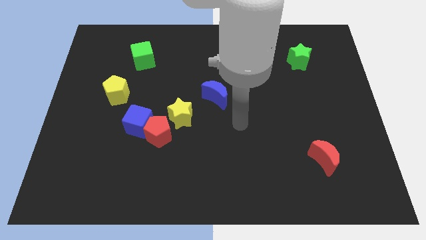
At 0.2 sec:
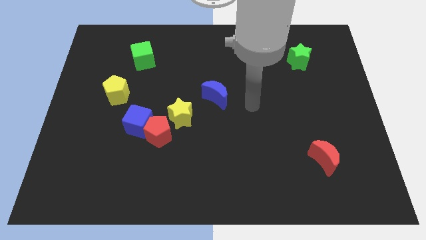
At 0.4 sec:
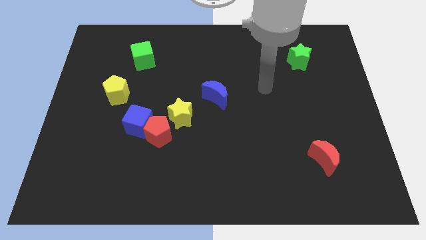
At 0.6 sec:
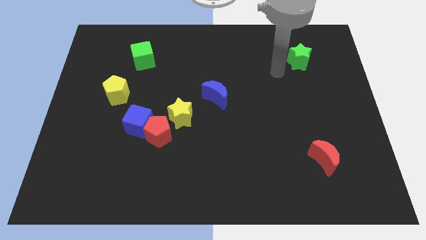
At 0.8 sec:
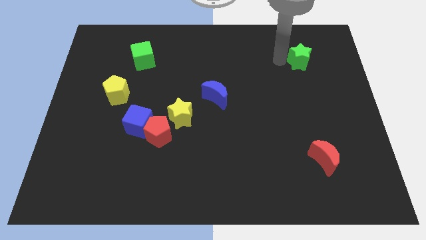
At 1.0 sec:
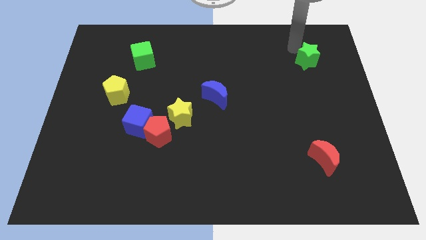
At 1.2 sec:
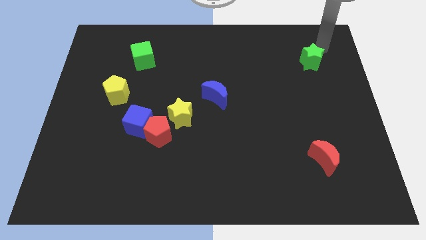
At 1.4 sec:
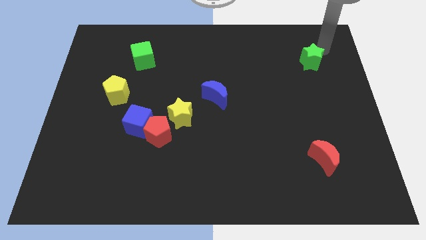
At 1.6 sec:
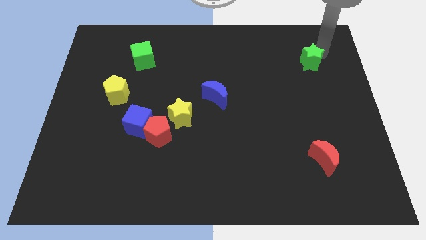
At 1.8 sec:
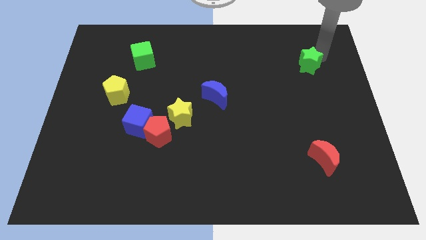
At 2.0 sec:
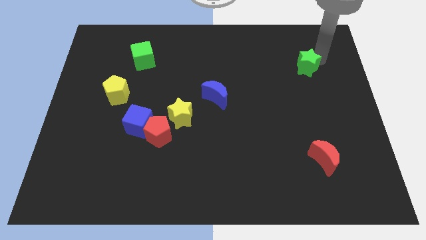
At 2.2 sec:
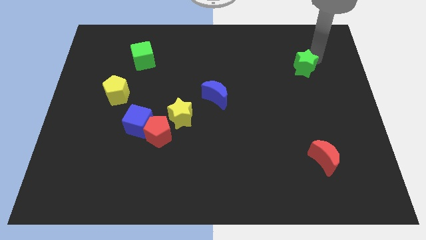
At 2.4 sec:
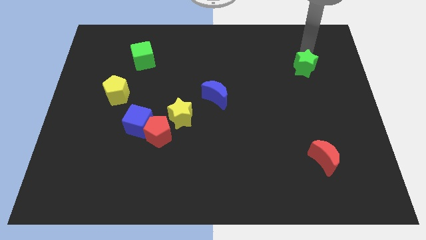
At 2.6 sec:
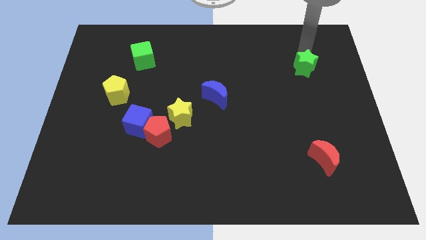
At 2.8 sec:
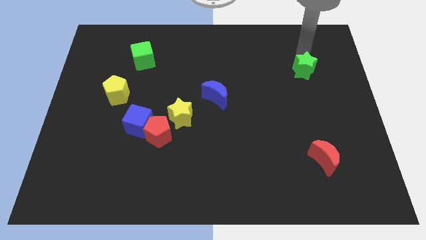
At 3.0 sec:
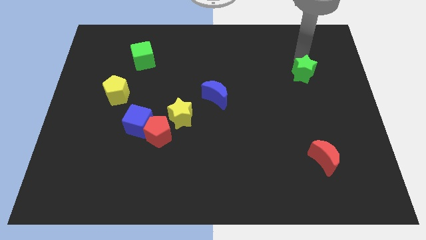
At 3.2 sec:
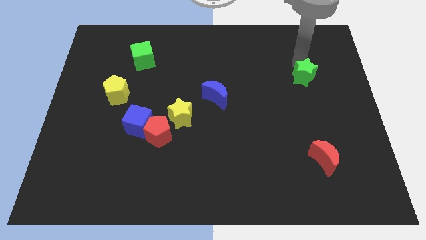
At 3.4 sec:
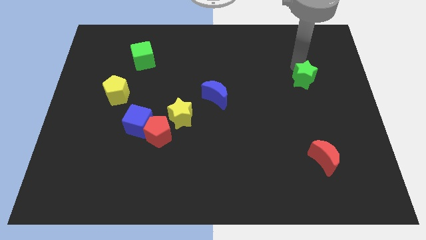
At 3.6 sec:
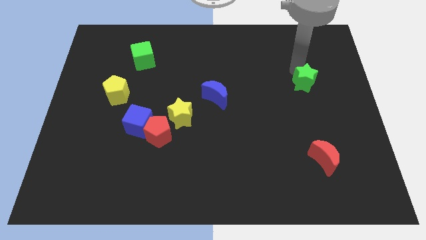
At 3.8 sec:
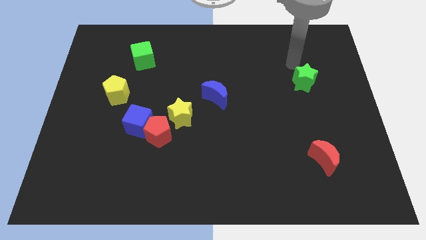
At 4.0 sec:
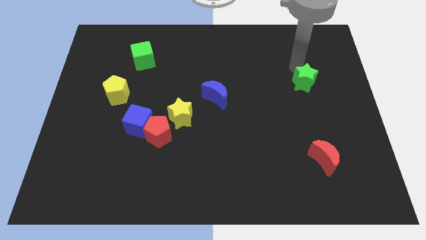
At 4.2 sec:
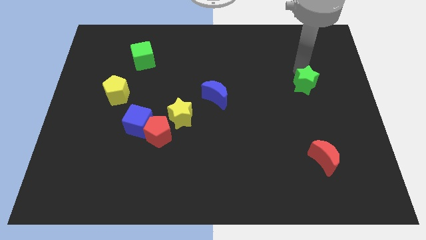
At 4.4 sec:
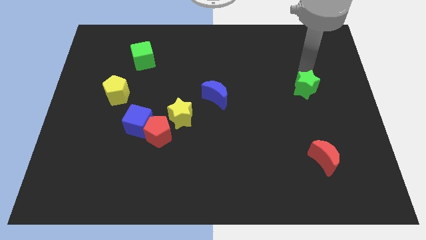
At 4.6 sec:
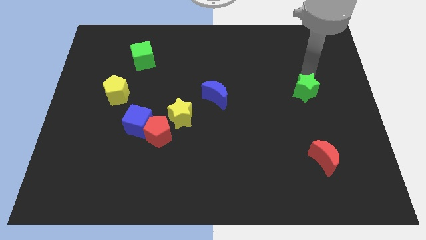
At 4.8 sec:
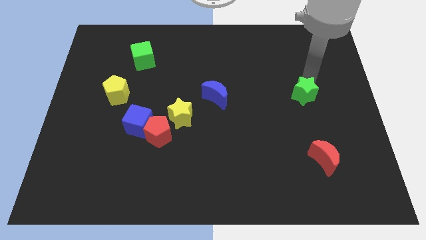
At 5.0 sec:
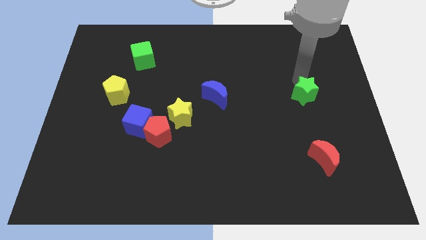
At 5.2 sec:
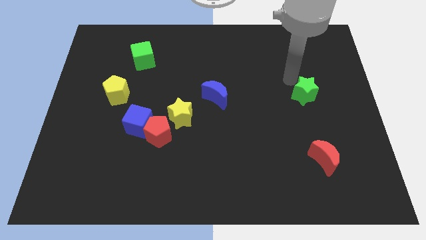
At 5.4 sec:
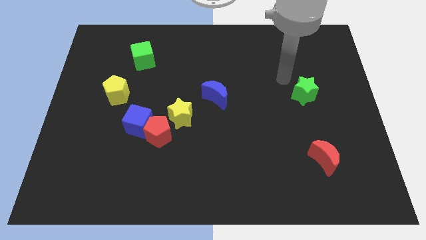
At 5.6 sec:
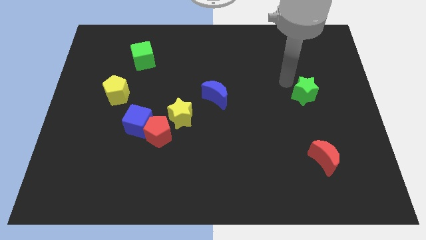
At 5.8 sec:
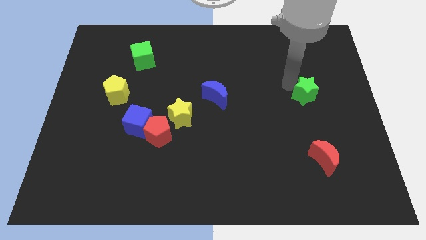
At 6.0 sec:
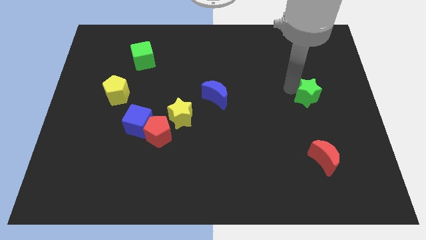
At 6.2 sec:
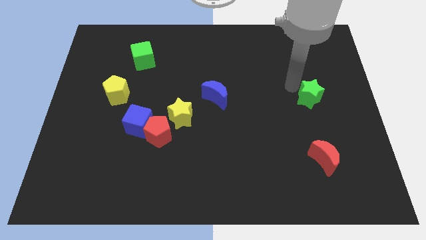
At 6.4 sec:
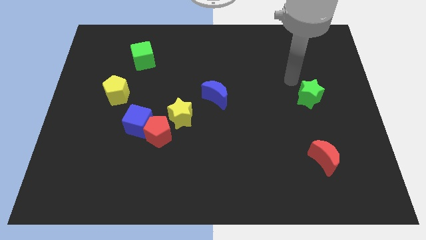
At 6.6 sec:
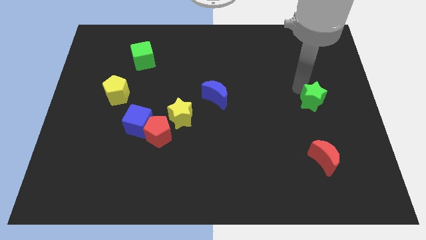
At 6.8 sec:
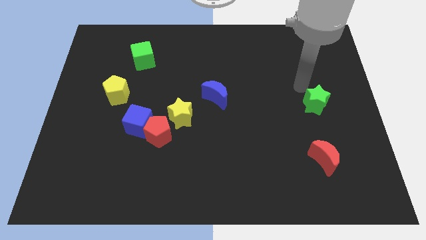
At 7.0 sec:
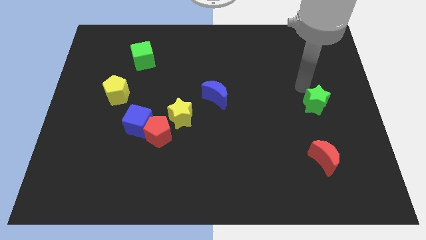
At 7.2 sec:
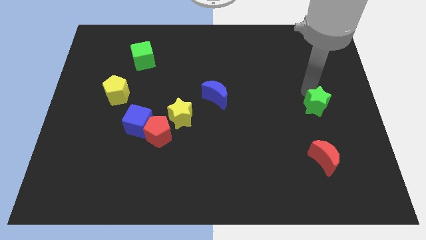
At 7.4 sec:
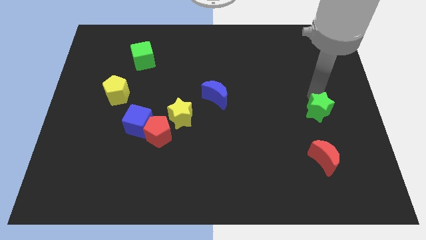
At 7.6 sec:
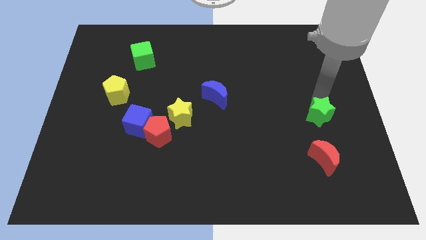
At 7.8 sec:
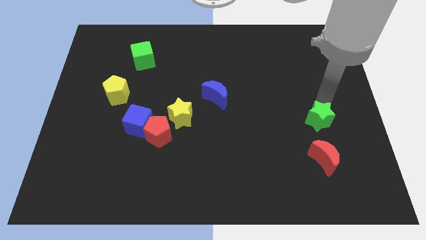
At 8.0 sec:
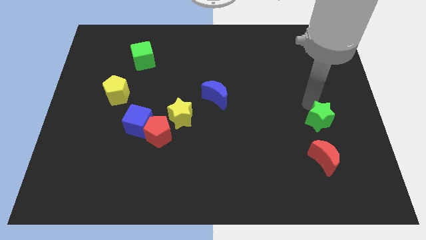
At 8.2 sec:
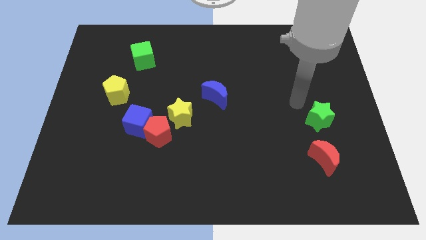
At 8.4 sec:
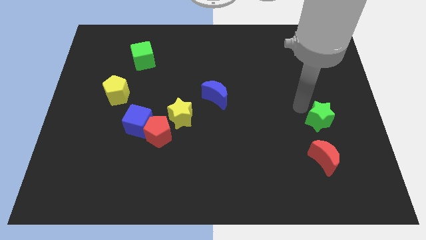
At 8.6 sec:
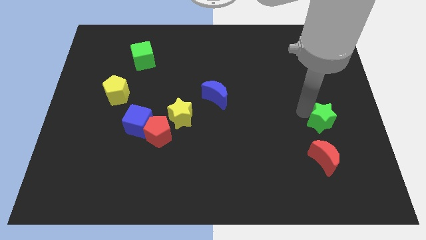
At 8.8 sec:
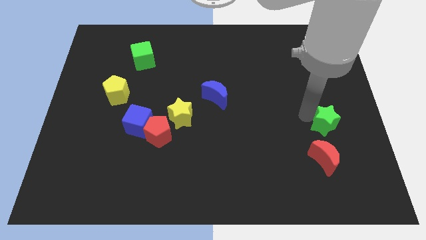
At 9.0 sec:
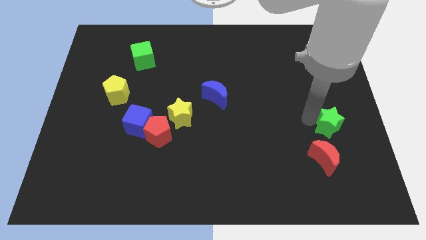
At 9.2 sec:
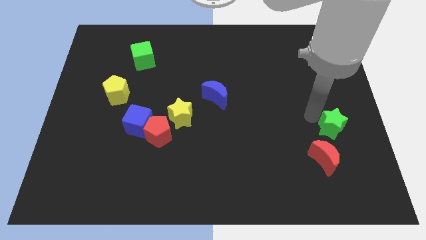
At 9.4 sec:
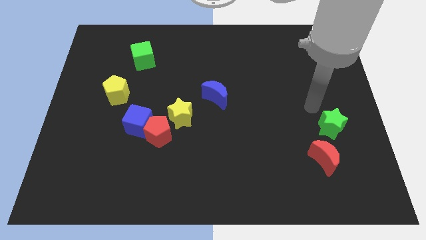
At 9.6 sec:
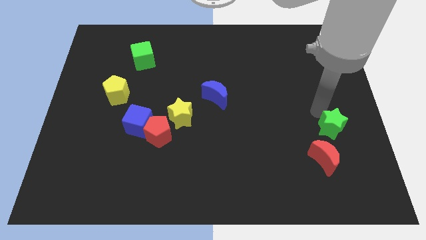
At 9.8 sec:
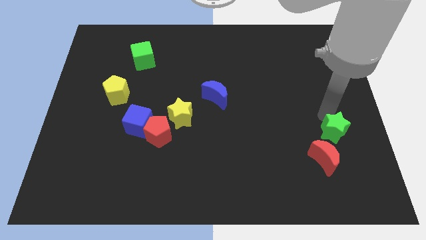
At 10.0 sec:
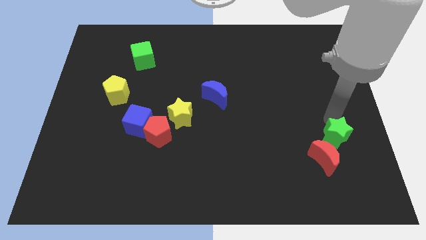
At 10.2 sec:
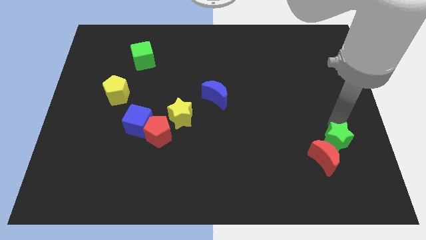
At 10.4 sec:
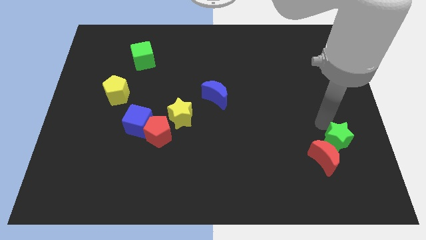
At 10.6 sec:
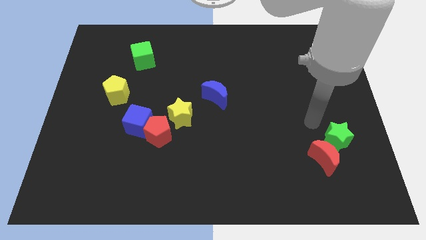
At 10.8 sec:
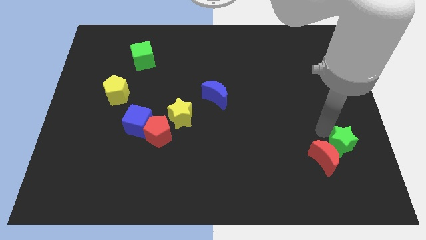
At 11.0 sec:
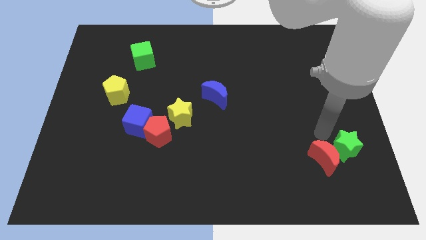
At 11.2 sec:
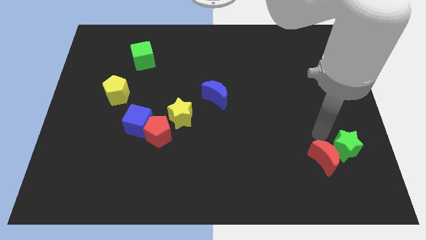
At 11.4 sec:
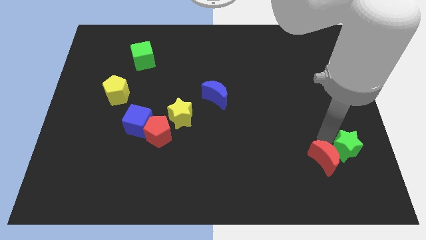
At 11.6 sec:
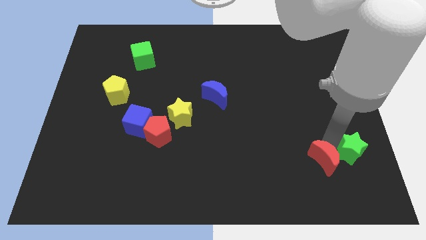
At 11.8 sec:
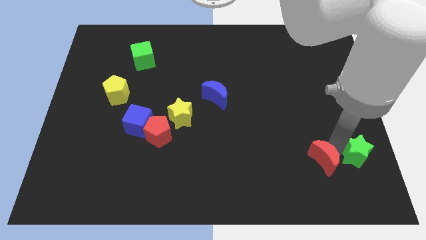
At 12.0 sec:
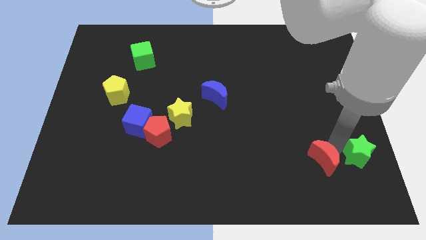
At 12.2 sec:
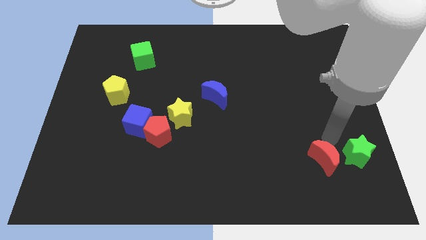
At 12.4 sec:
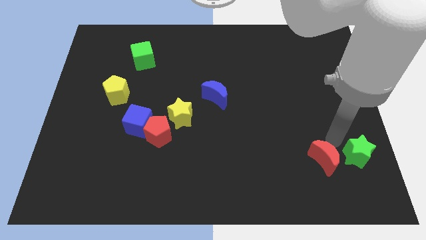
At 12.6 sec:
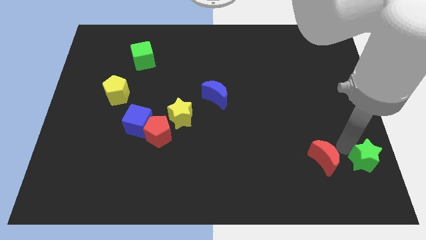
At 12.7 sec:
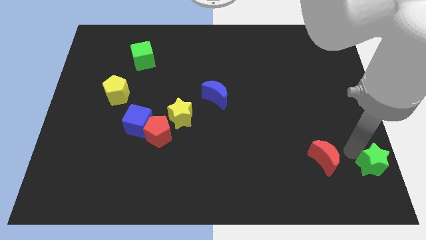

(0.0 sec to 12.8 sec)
put the green star to the bottom right corner
